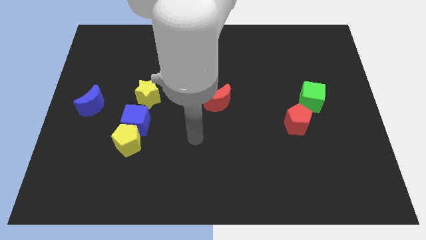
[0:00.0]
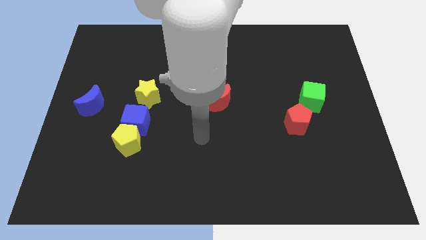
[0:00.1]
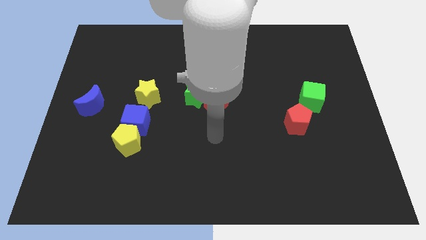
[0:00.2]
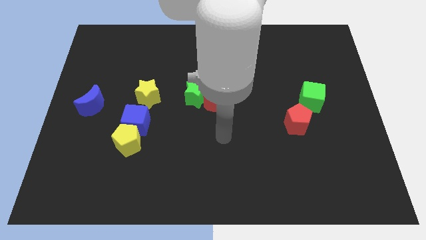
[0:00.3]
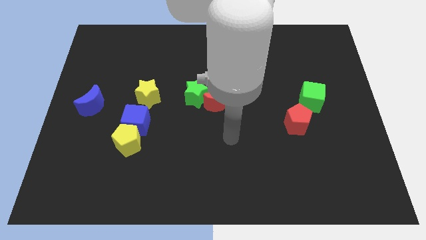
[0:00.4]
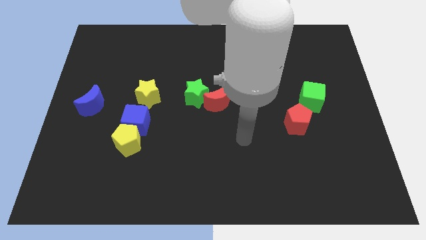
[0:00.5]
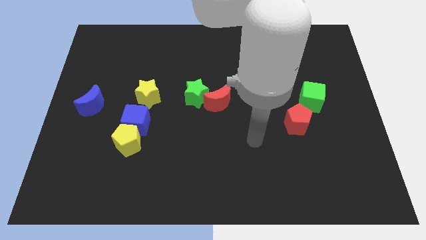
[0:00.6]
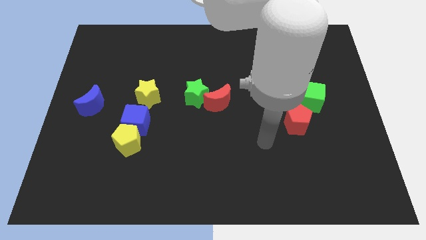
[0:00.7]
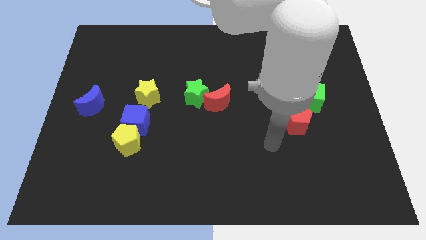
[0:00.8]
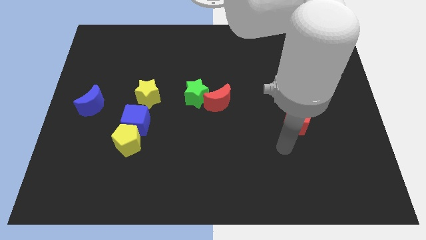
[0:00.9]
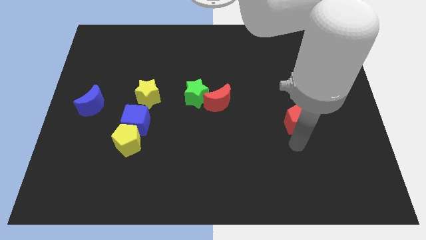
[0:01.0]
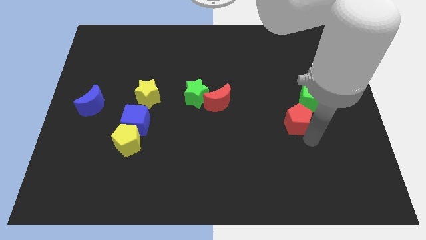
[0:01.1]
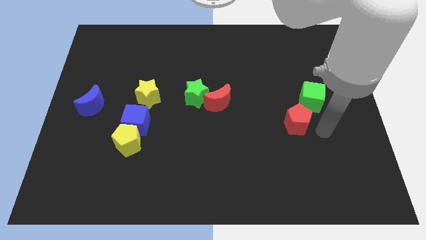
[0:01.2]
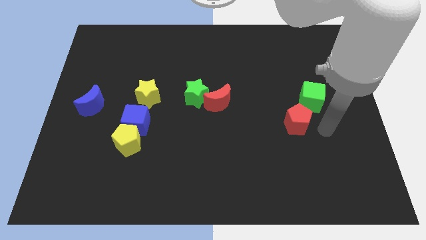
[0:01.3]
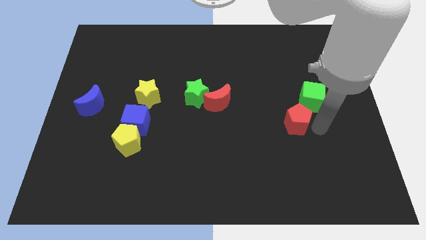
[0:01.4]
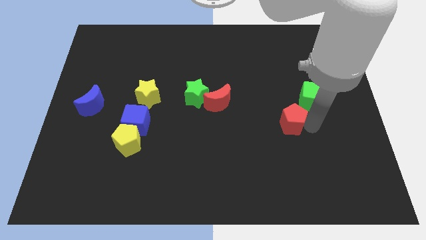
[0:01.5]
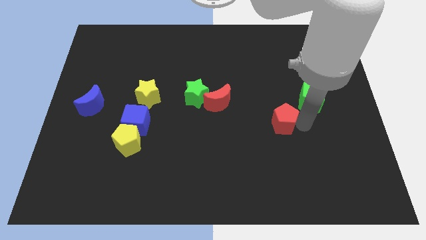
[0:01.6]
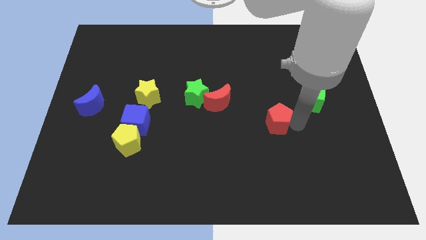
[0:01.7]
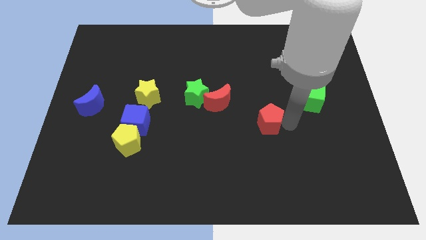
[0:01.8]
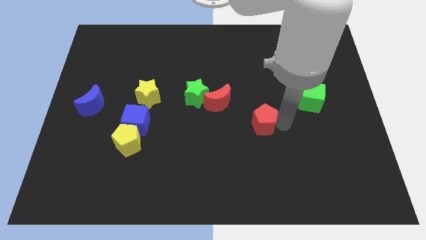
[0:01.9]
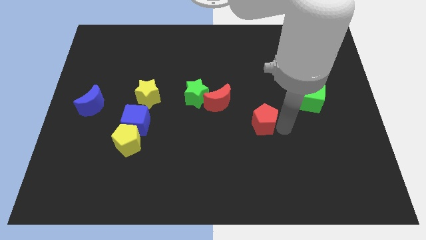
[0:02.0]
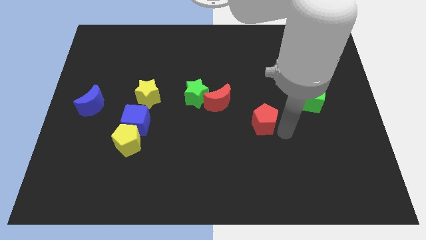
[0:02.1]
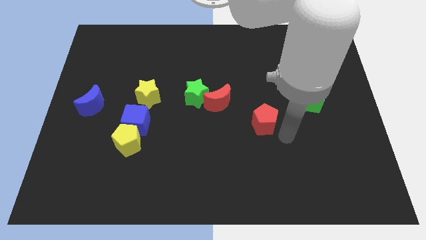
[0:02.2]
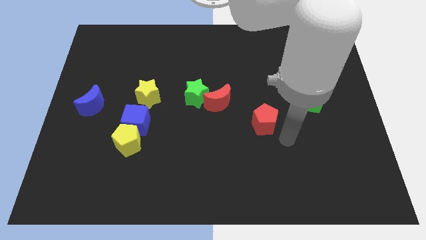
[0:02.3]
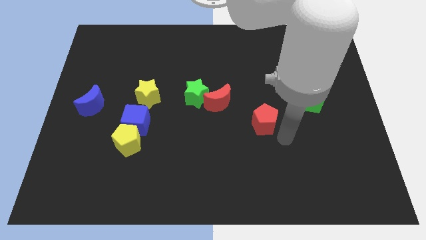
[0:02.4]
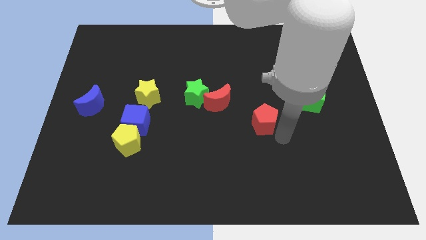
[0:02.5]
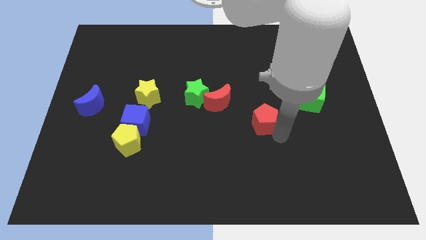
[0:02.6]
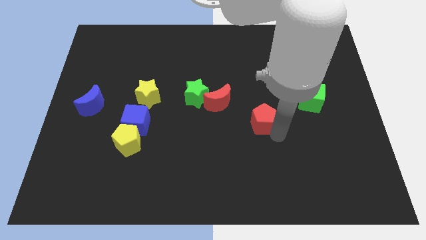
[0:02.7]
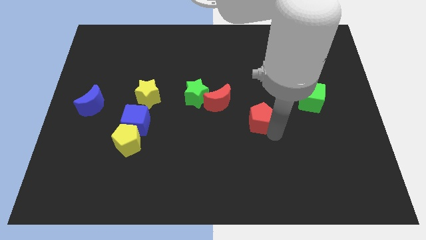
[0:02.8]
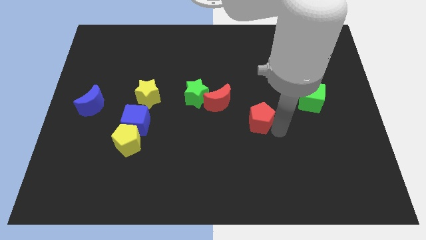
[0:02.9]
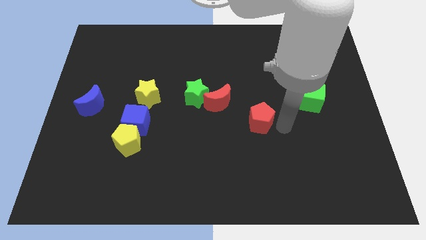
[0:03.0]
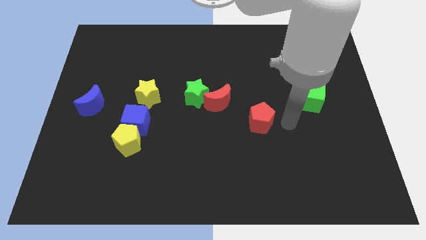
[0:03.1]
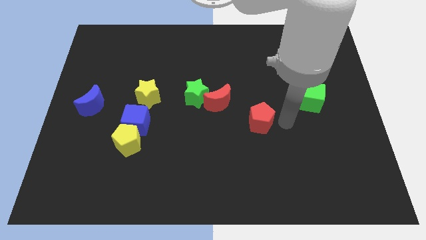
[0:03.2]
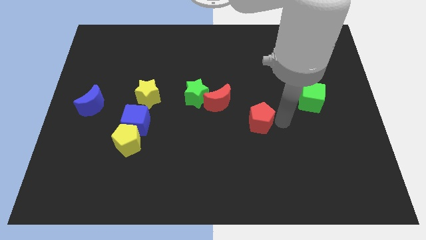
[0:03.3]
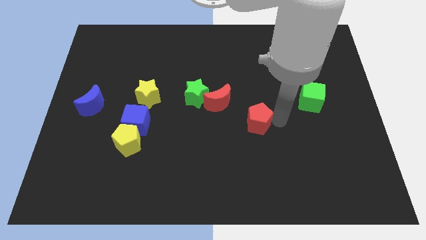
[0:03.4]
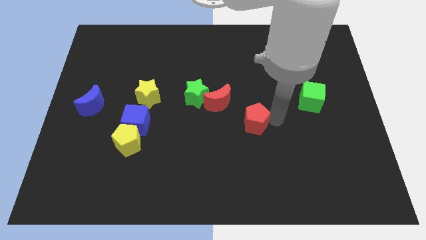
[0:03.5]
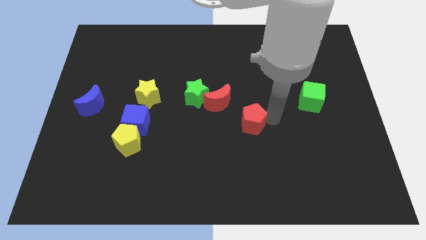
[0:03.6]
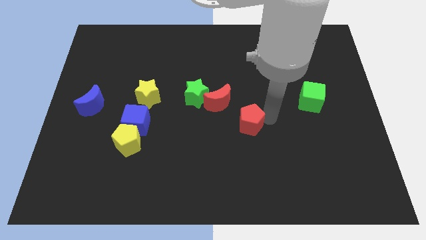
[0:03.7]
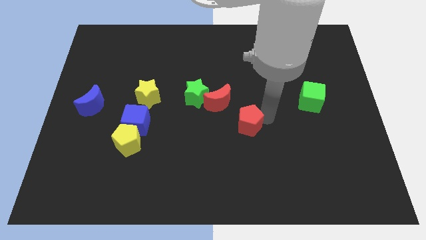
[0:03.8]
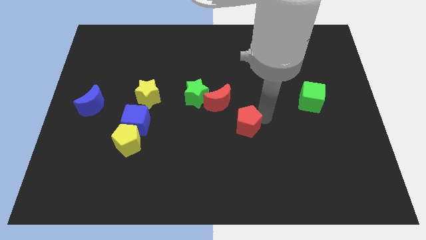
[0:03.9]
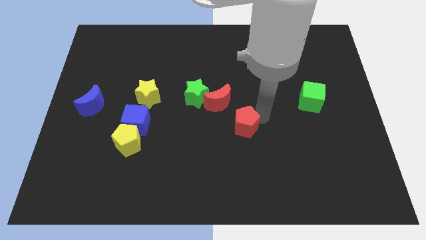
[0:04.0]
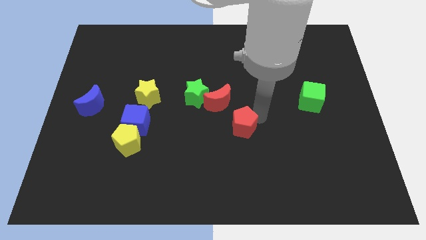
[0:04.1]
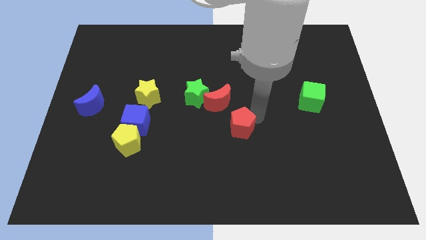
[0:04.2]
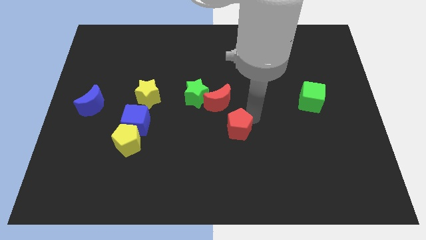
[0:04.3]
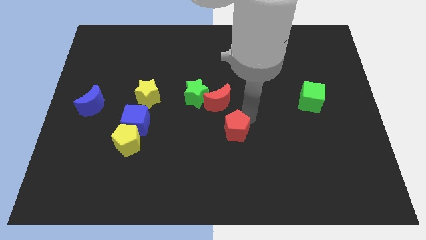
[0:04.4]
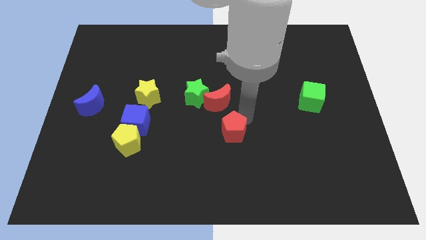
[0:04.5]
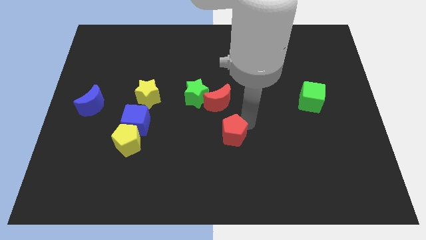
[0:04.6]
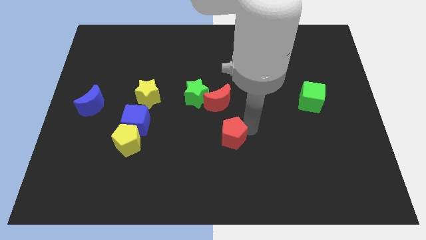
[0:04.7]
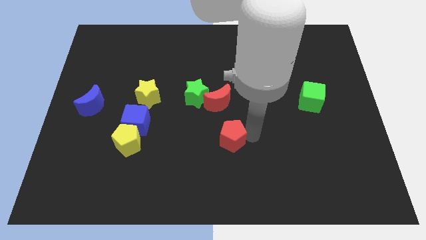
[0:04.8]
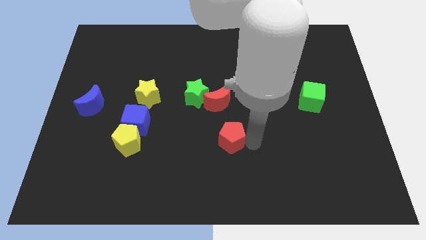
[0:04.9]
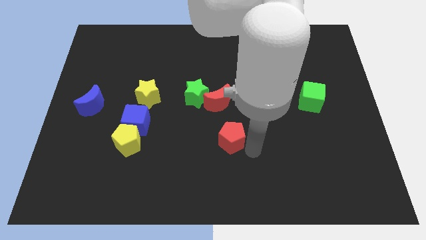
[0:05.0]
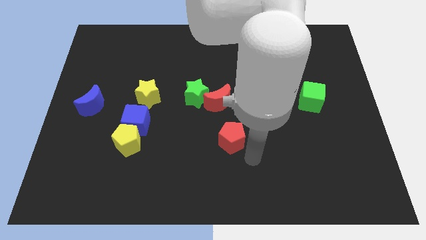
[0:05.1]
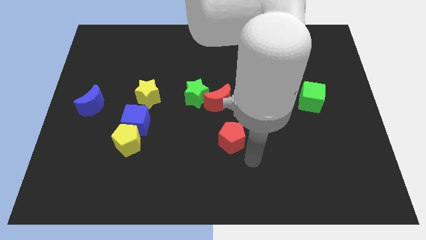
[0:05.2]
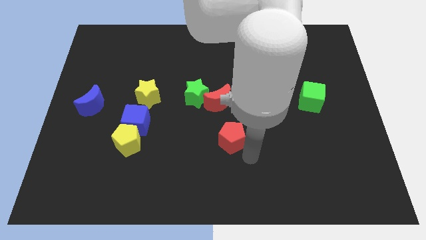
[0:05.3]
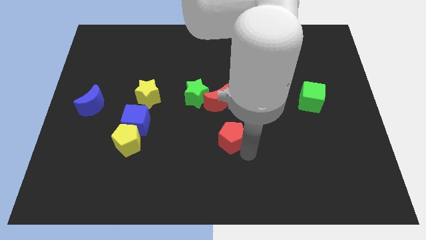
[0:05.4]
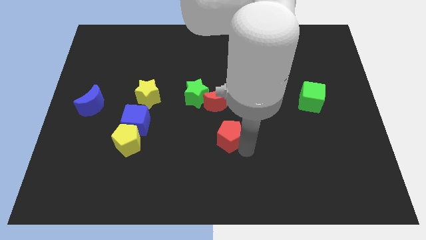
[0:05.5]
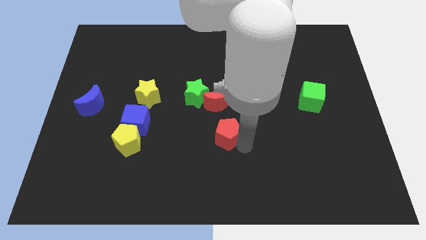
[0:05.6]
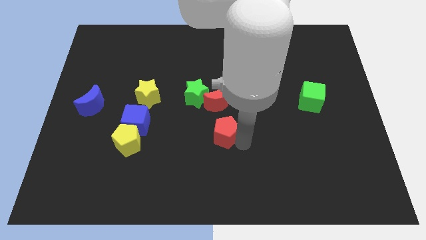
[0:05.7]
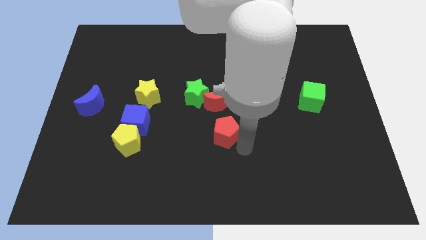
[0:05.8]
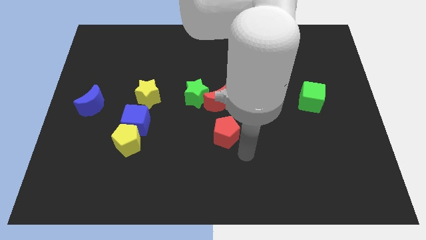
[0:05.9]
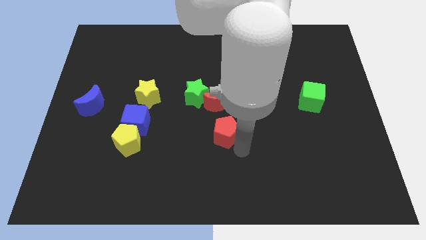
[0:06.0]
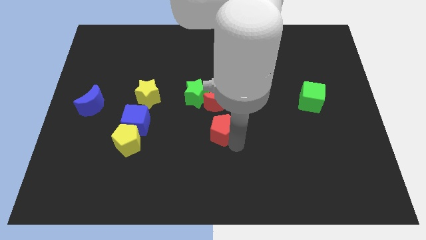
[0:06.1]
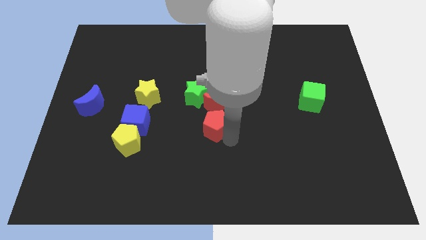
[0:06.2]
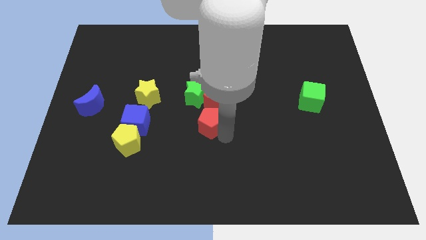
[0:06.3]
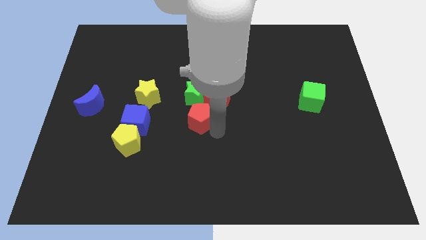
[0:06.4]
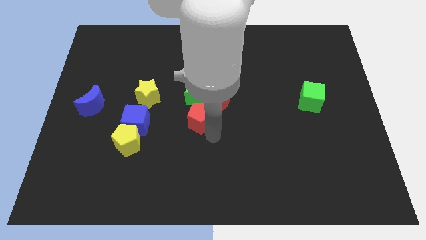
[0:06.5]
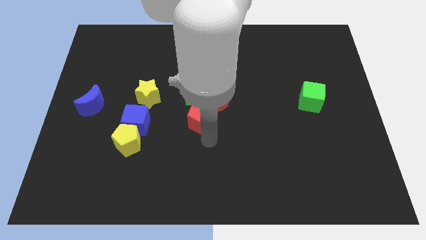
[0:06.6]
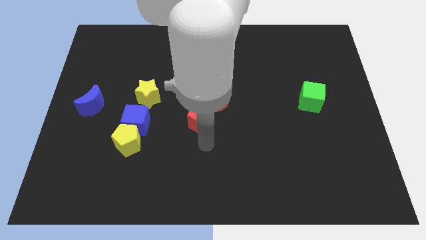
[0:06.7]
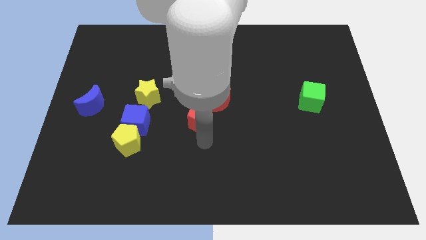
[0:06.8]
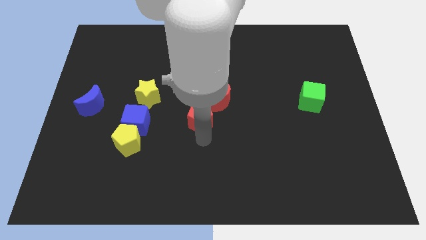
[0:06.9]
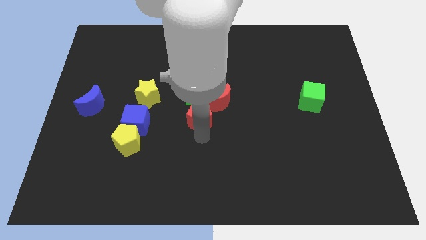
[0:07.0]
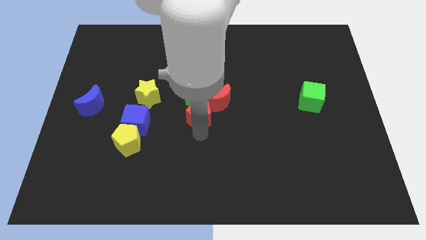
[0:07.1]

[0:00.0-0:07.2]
put the red pentagon close to the green star
